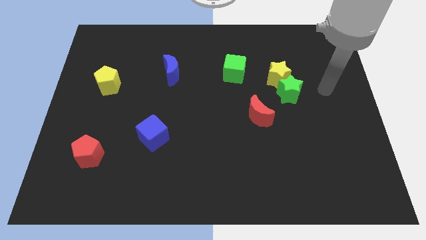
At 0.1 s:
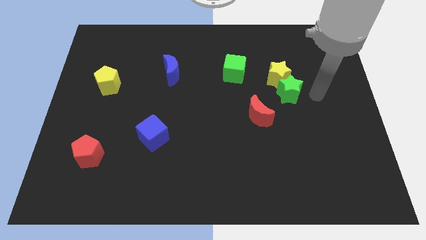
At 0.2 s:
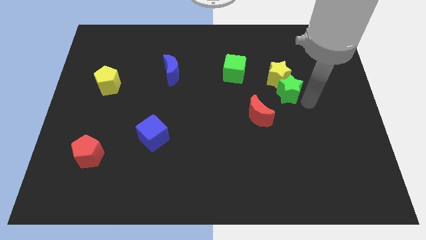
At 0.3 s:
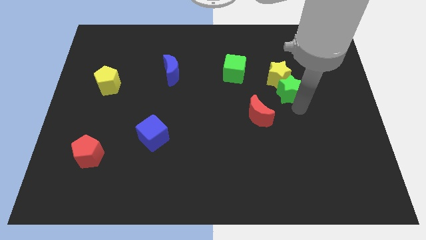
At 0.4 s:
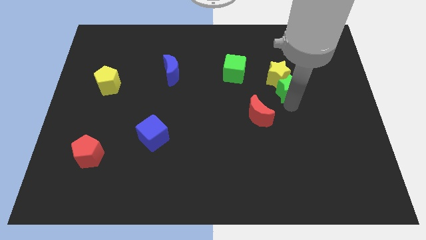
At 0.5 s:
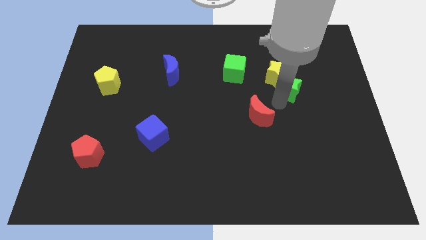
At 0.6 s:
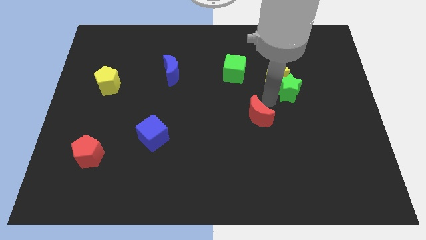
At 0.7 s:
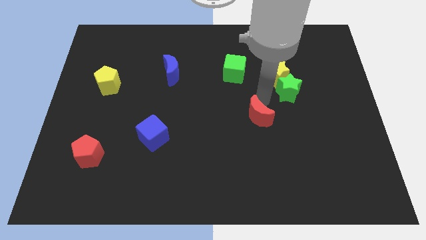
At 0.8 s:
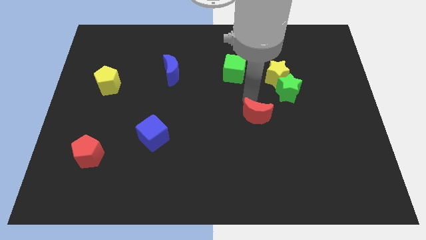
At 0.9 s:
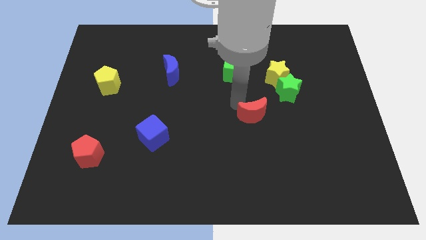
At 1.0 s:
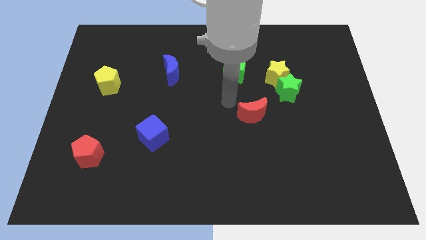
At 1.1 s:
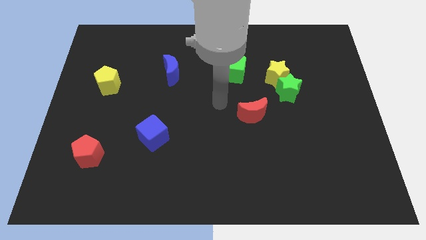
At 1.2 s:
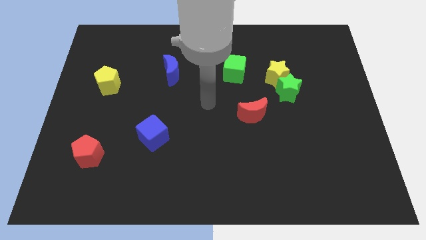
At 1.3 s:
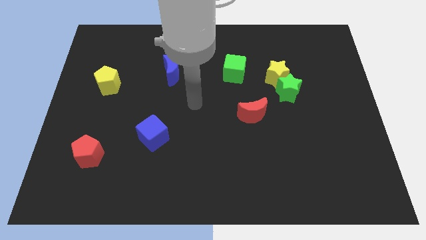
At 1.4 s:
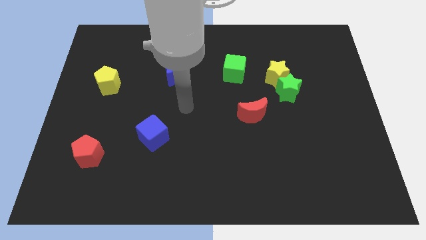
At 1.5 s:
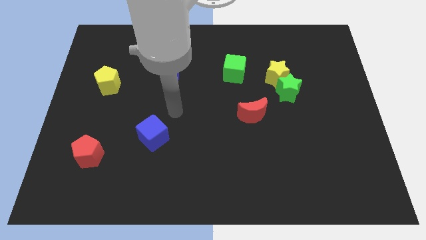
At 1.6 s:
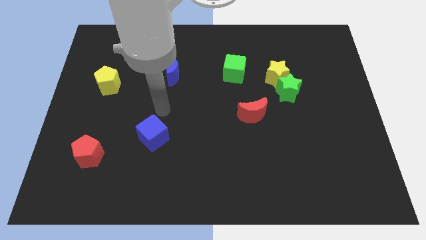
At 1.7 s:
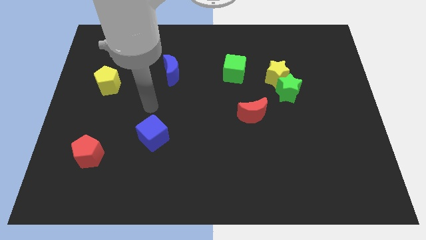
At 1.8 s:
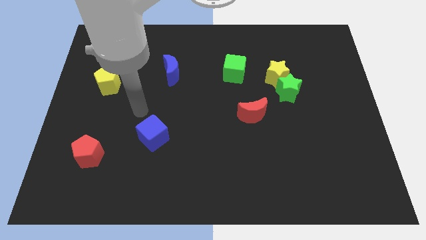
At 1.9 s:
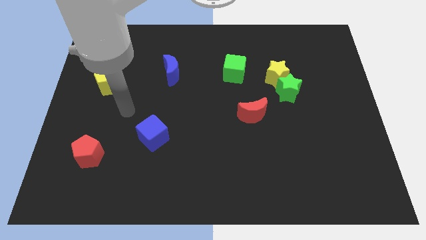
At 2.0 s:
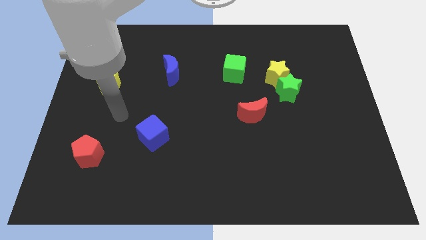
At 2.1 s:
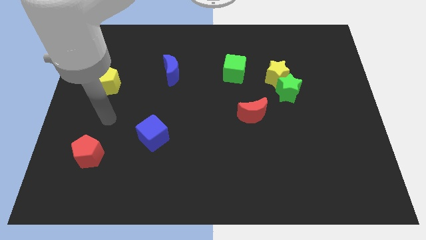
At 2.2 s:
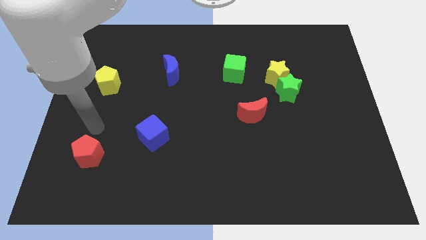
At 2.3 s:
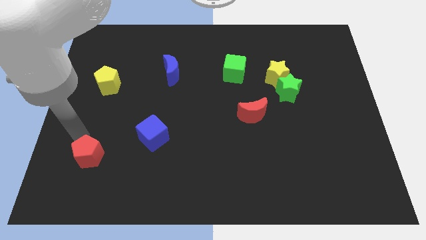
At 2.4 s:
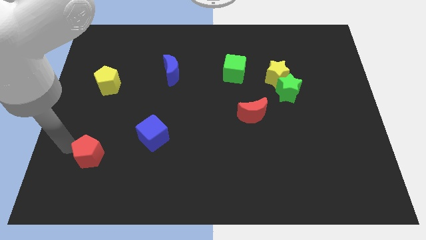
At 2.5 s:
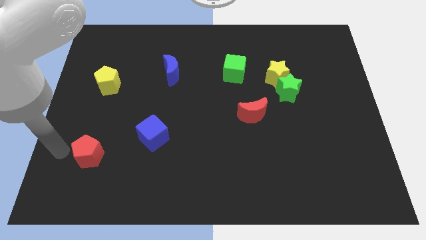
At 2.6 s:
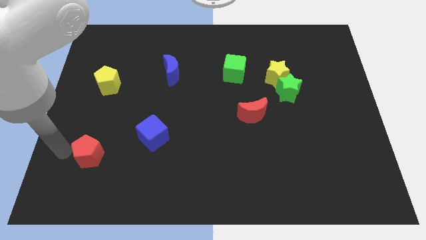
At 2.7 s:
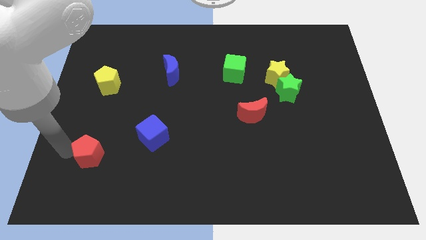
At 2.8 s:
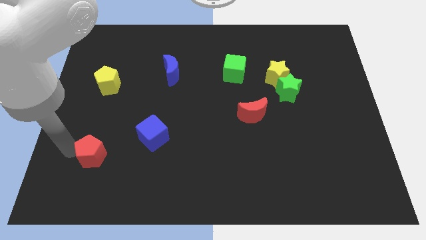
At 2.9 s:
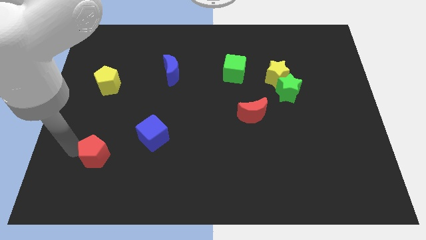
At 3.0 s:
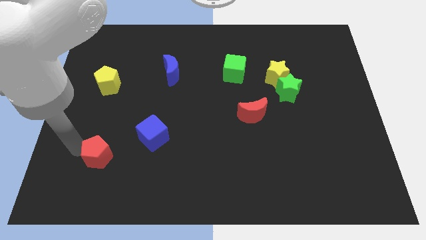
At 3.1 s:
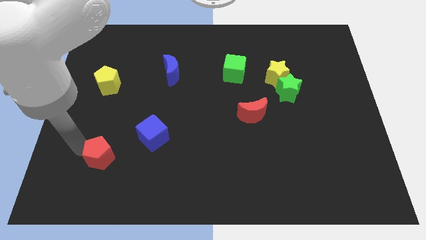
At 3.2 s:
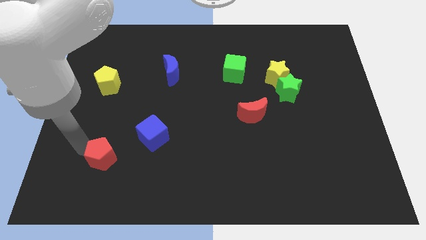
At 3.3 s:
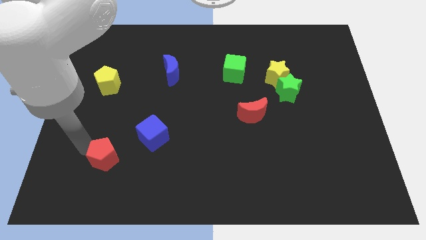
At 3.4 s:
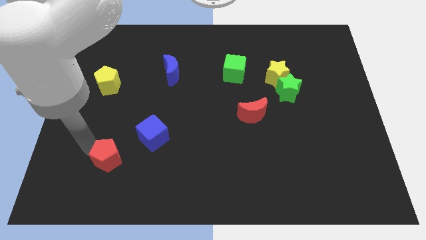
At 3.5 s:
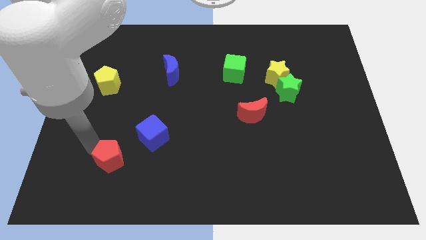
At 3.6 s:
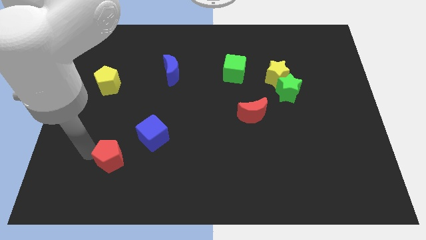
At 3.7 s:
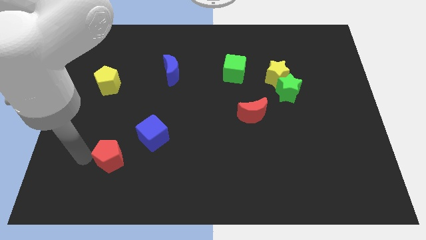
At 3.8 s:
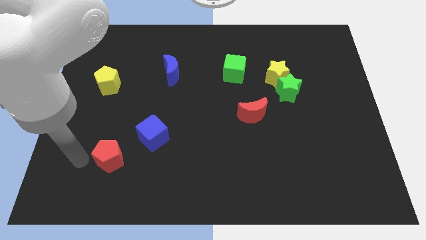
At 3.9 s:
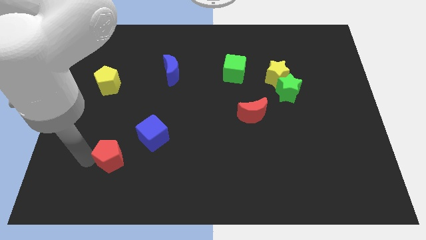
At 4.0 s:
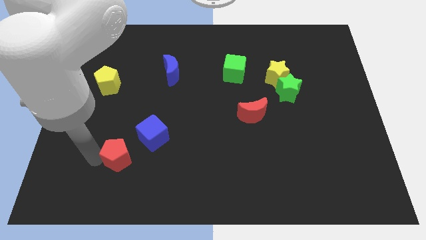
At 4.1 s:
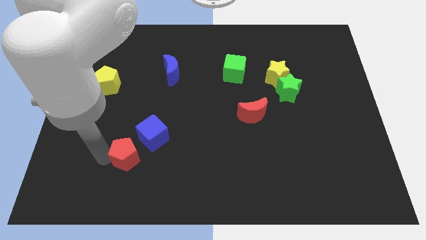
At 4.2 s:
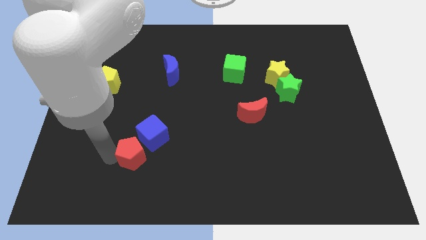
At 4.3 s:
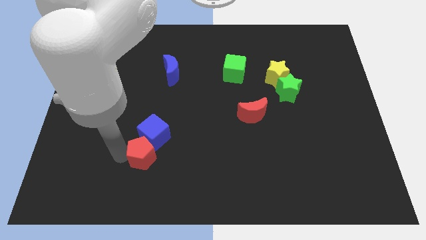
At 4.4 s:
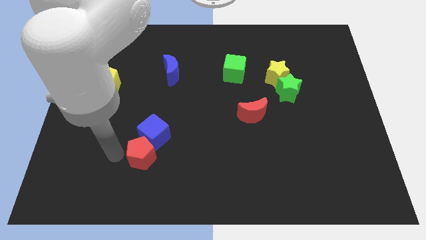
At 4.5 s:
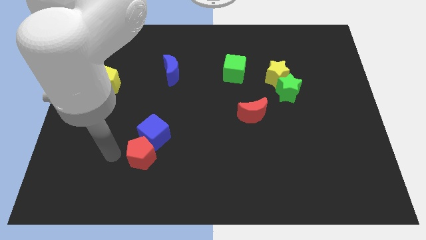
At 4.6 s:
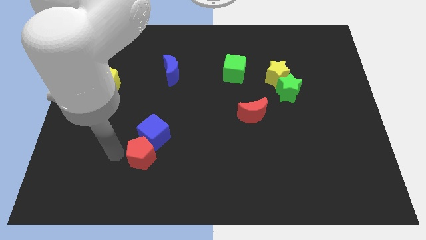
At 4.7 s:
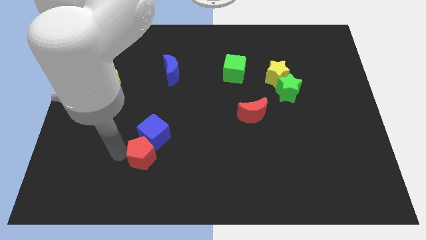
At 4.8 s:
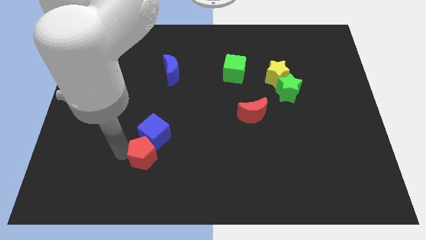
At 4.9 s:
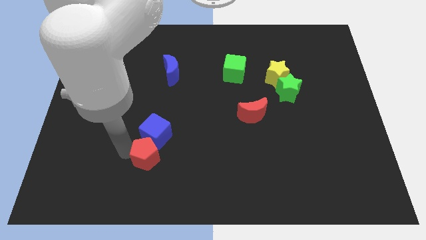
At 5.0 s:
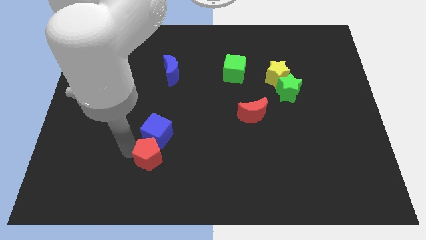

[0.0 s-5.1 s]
push the red pentagon diagonally down and to the right of the blue cube

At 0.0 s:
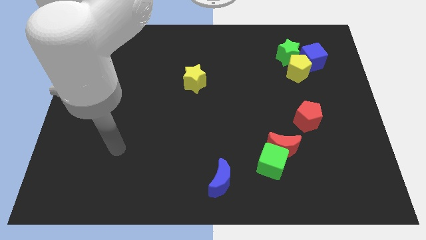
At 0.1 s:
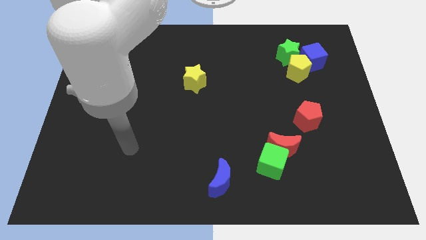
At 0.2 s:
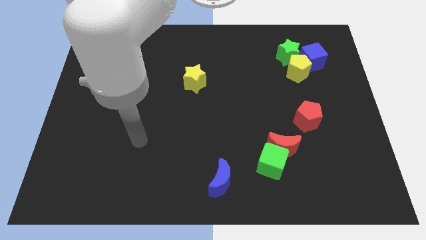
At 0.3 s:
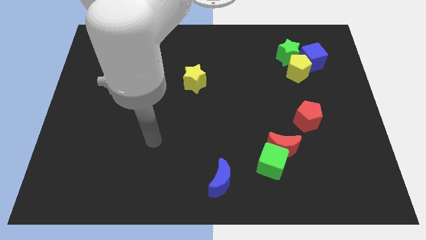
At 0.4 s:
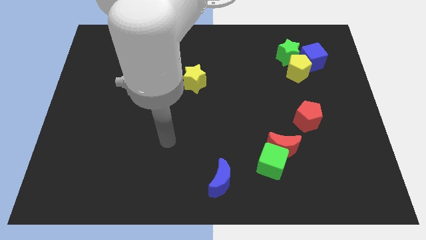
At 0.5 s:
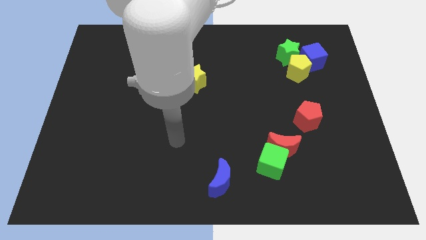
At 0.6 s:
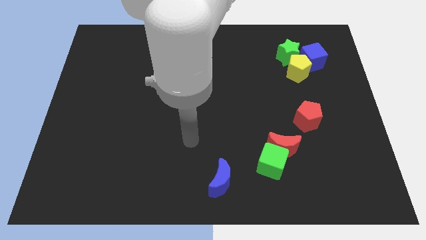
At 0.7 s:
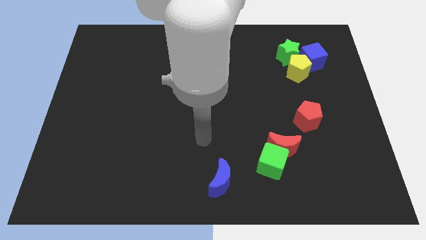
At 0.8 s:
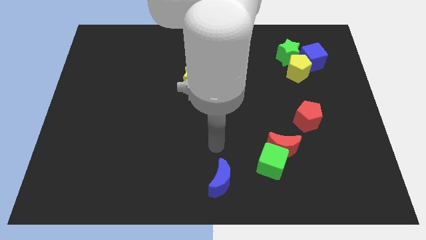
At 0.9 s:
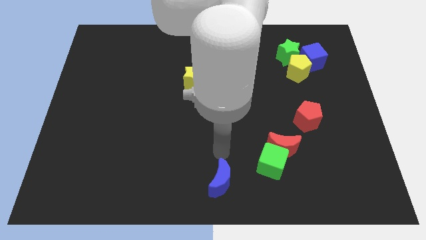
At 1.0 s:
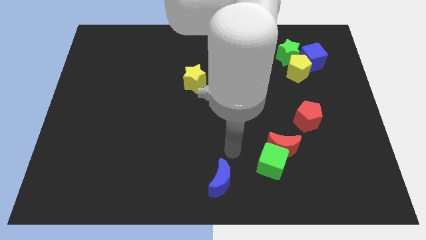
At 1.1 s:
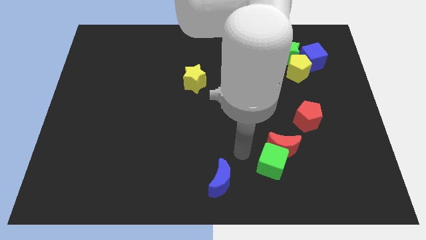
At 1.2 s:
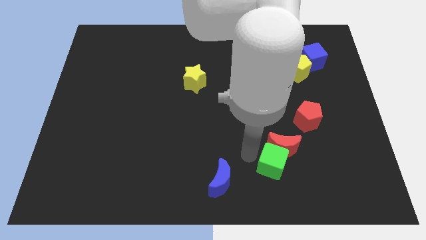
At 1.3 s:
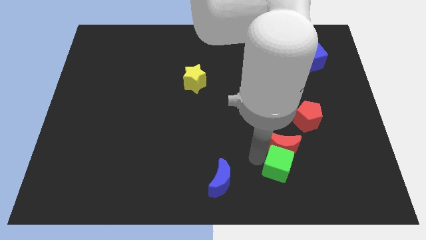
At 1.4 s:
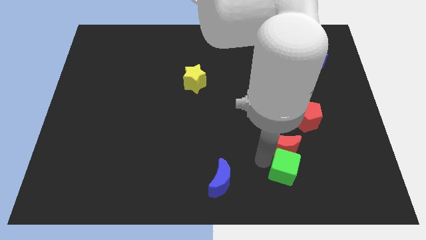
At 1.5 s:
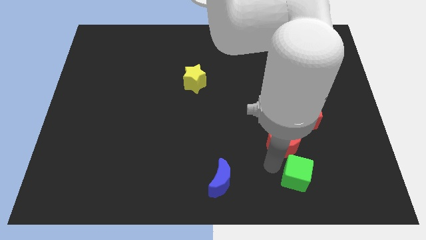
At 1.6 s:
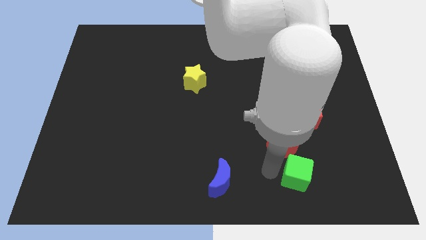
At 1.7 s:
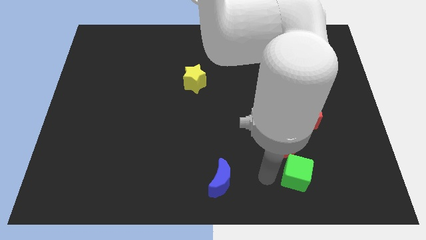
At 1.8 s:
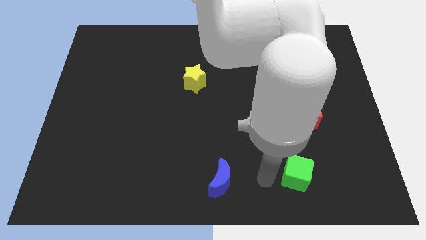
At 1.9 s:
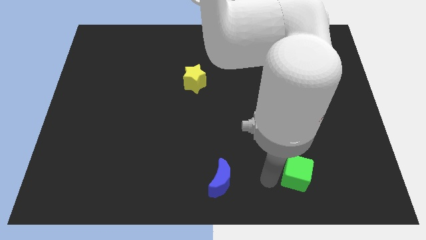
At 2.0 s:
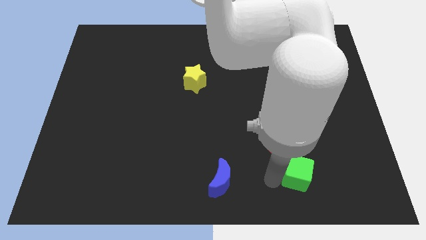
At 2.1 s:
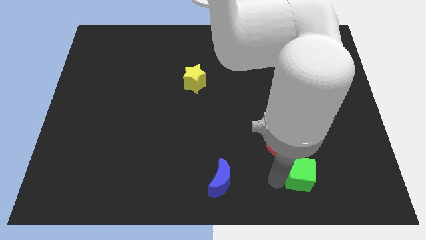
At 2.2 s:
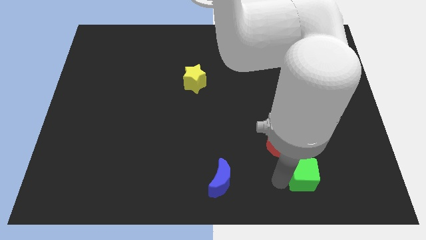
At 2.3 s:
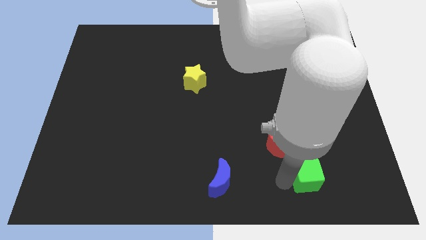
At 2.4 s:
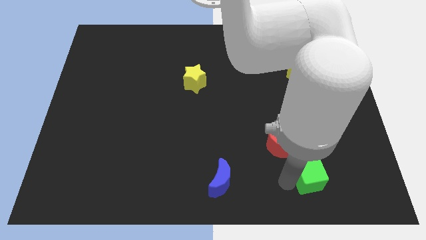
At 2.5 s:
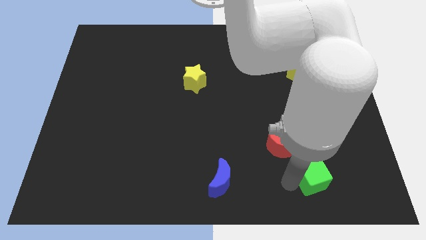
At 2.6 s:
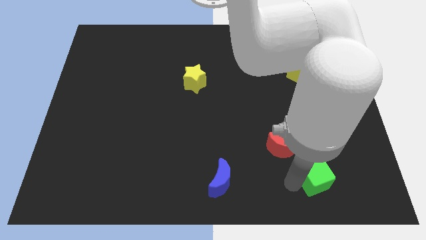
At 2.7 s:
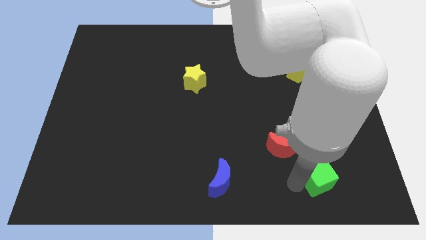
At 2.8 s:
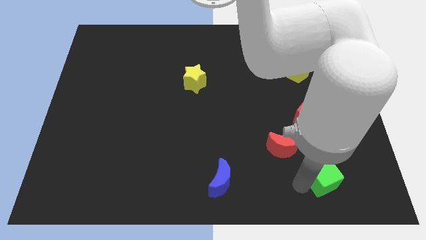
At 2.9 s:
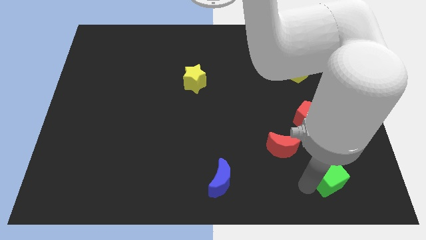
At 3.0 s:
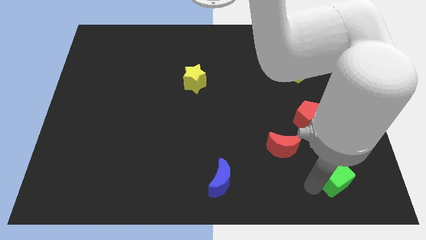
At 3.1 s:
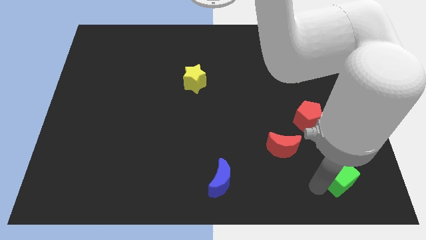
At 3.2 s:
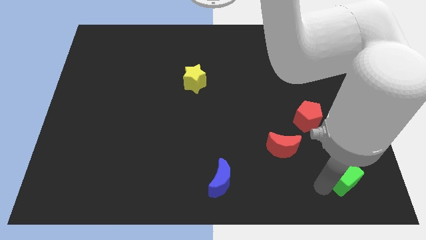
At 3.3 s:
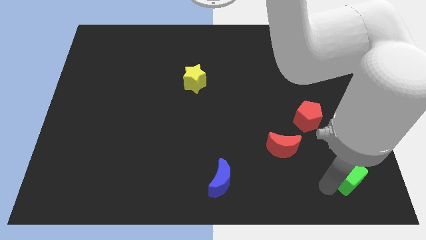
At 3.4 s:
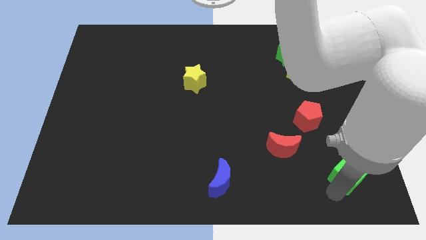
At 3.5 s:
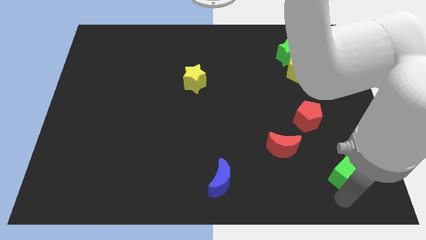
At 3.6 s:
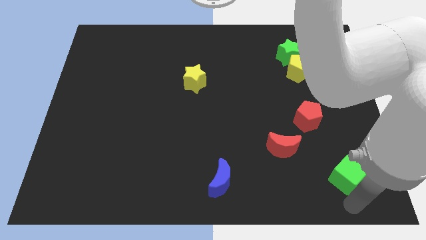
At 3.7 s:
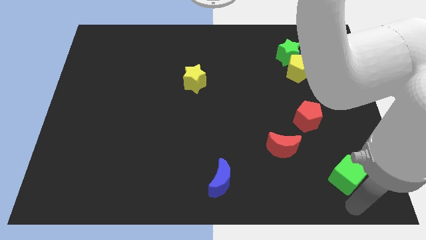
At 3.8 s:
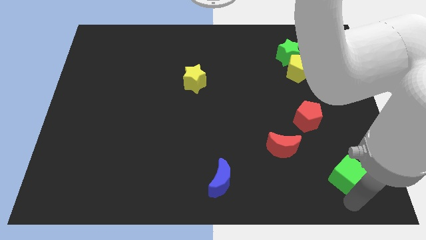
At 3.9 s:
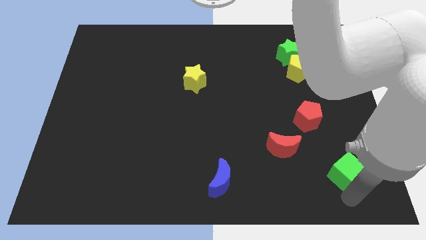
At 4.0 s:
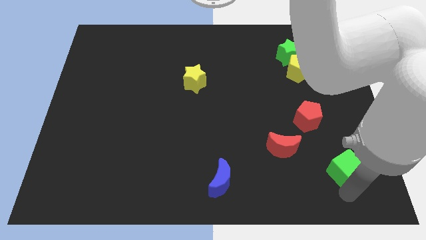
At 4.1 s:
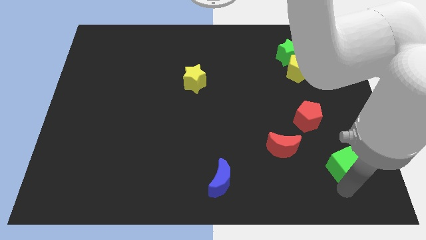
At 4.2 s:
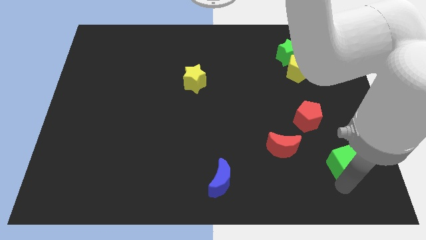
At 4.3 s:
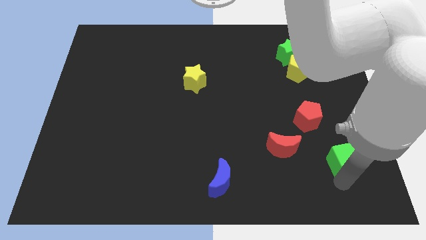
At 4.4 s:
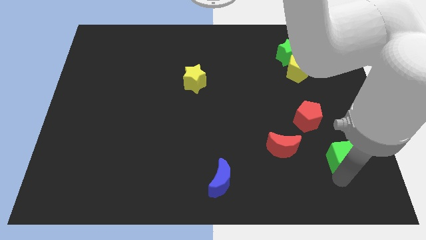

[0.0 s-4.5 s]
put the green cube diagonally down and to the right of the red pentagon
